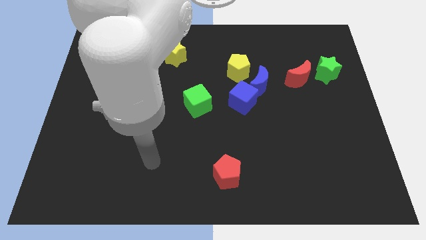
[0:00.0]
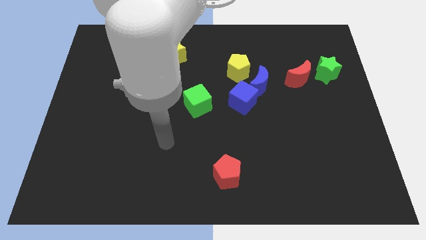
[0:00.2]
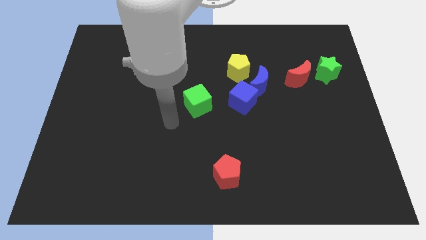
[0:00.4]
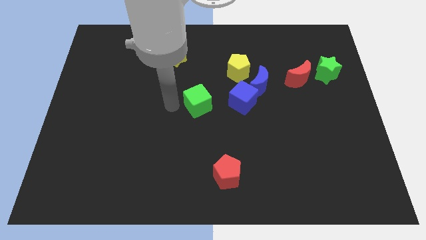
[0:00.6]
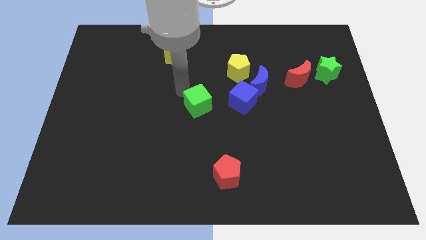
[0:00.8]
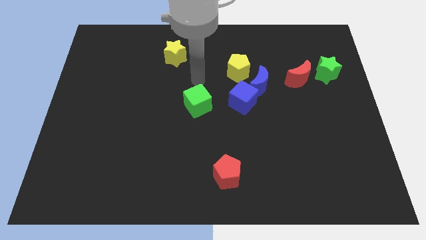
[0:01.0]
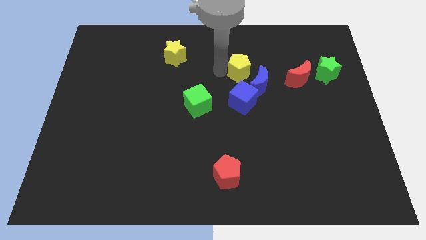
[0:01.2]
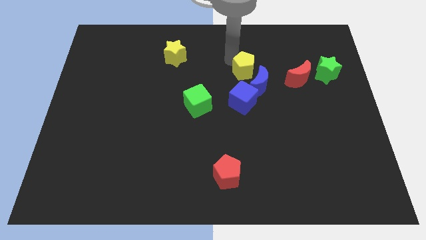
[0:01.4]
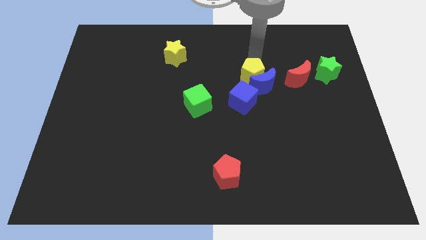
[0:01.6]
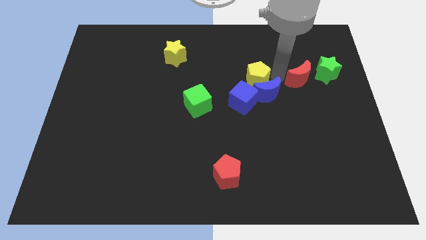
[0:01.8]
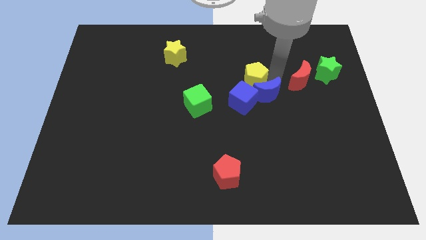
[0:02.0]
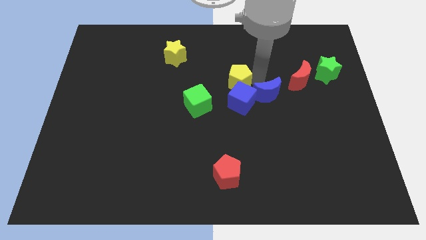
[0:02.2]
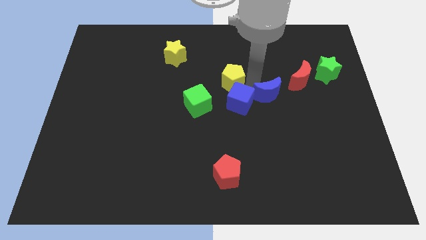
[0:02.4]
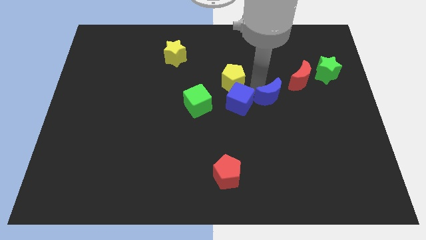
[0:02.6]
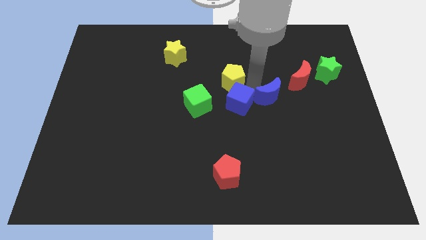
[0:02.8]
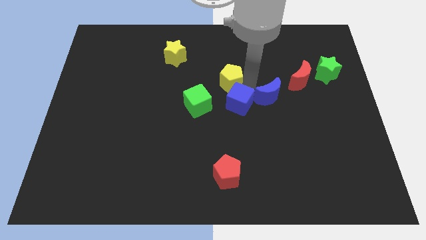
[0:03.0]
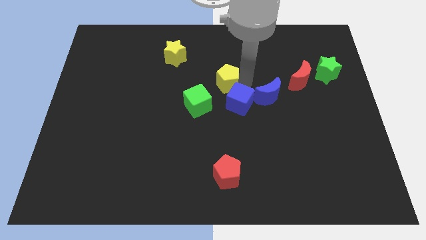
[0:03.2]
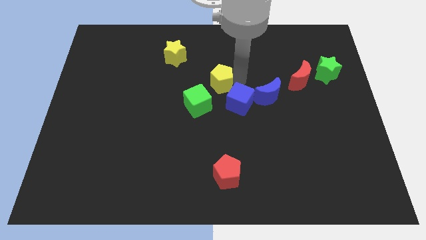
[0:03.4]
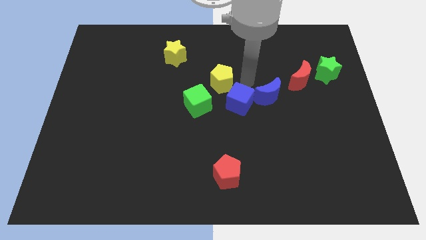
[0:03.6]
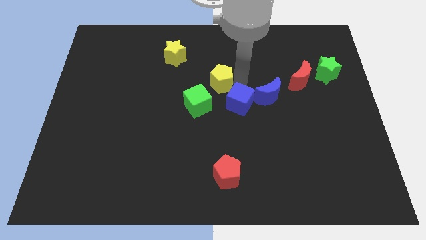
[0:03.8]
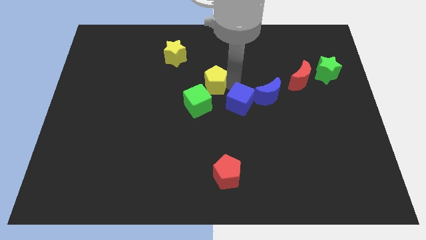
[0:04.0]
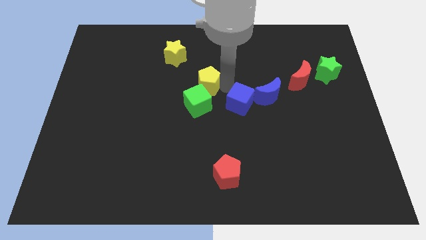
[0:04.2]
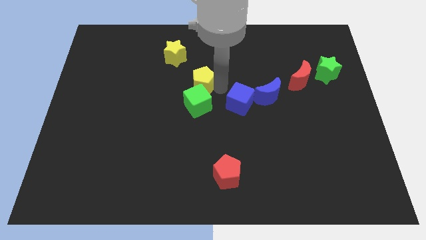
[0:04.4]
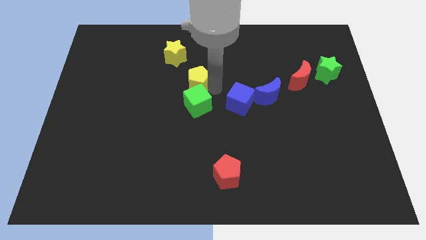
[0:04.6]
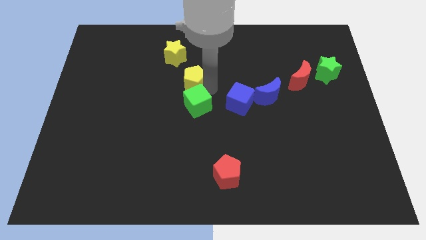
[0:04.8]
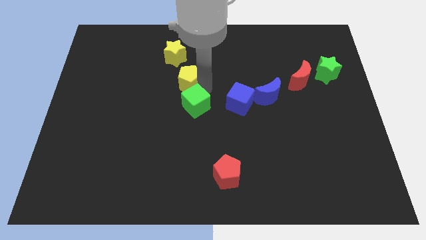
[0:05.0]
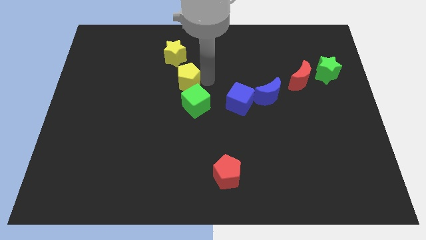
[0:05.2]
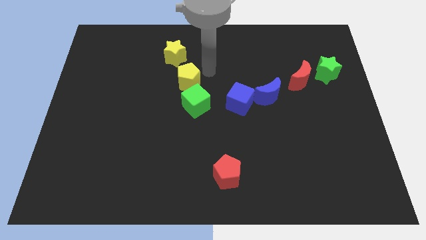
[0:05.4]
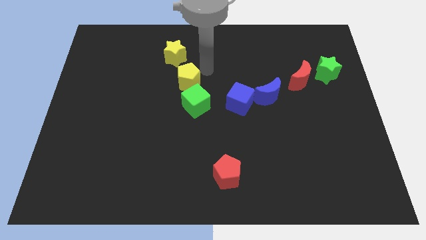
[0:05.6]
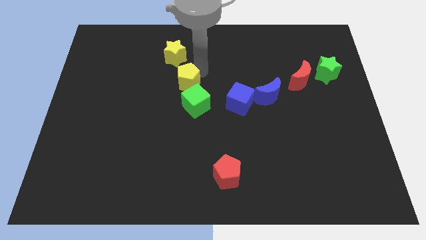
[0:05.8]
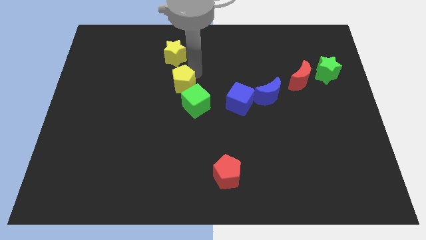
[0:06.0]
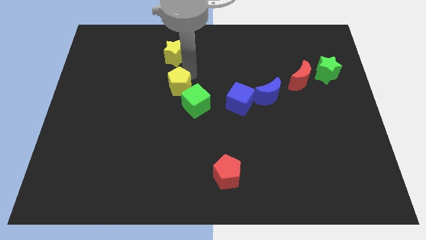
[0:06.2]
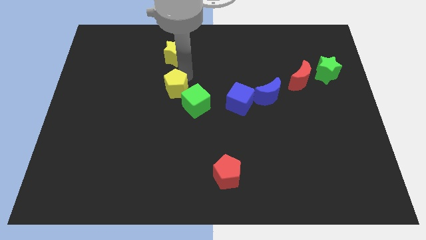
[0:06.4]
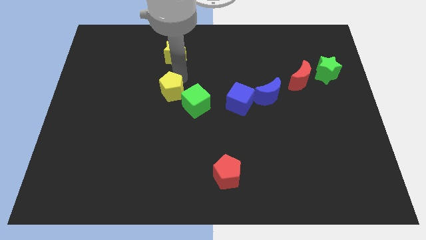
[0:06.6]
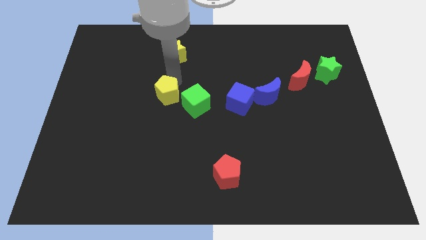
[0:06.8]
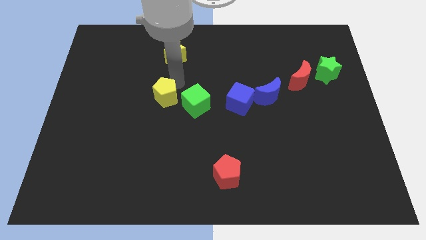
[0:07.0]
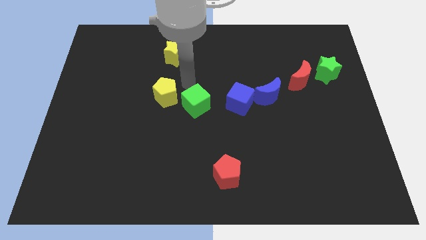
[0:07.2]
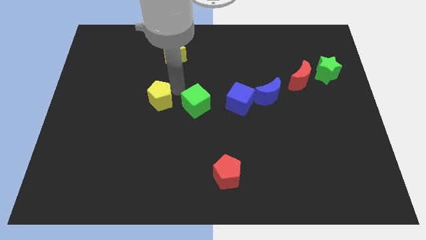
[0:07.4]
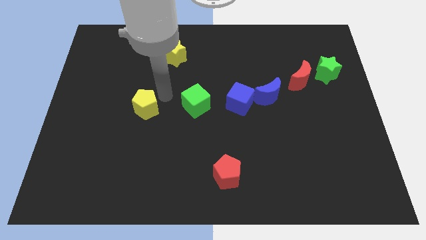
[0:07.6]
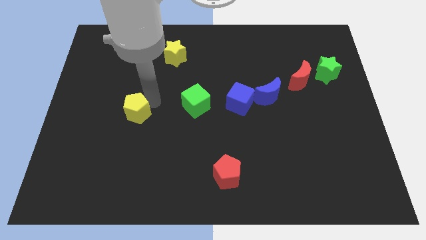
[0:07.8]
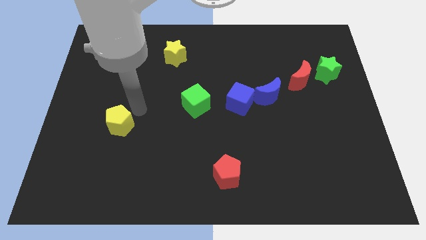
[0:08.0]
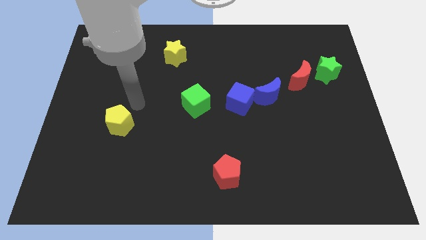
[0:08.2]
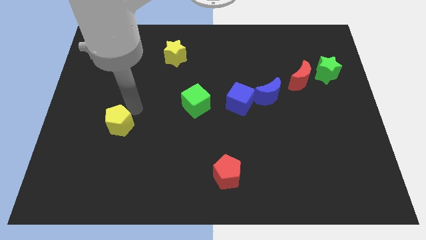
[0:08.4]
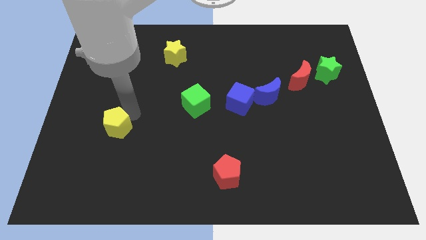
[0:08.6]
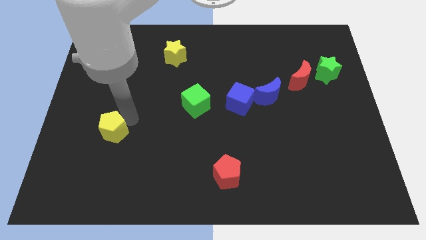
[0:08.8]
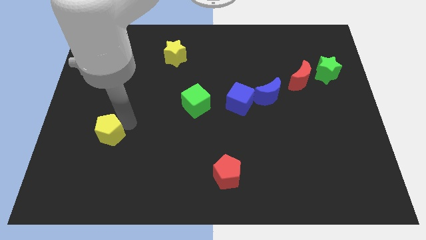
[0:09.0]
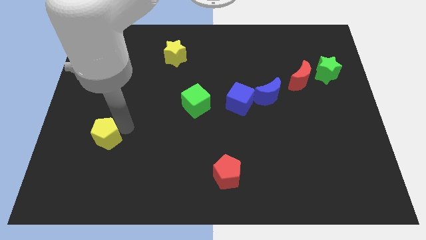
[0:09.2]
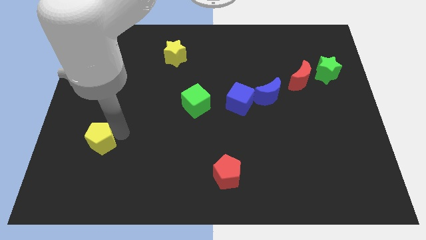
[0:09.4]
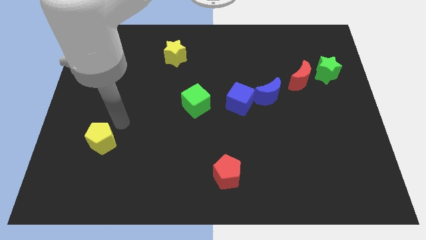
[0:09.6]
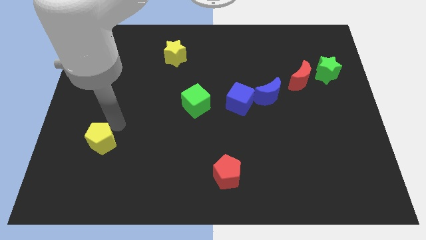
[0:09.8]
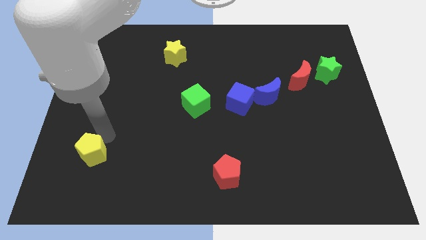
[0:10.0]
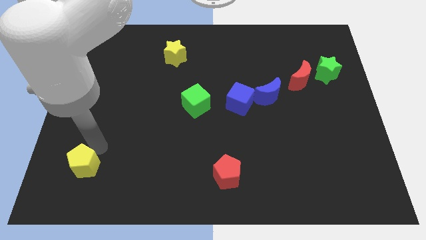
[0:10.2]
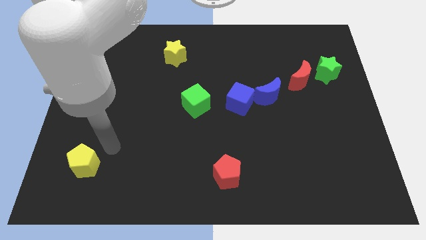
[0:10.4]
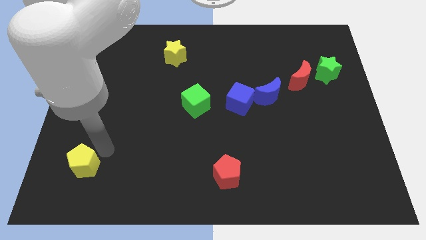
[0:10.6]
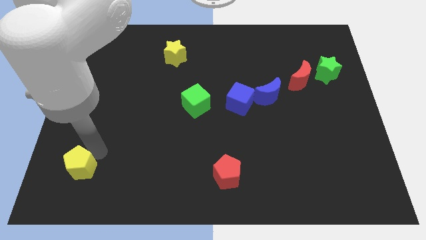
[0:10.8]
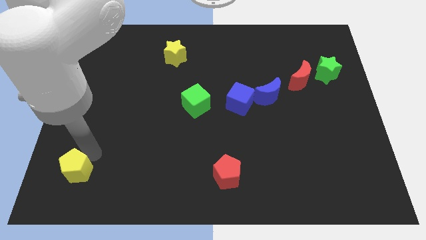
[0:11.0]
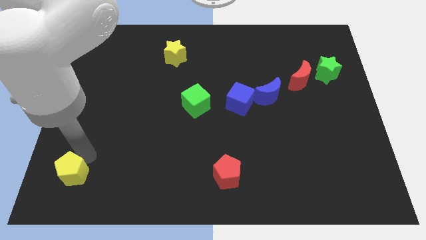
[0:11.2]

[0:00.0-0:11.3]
put the yellow pentagon to the bottom left of the board

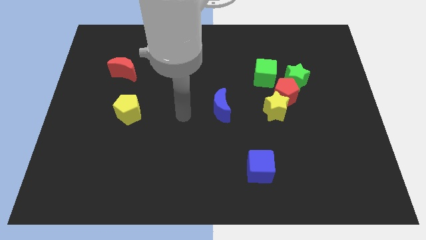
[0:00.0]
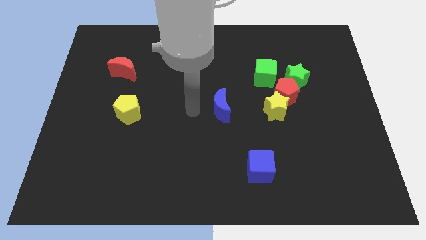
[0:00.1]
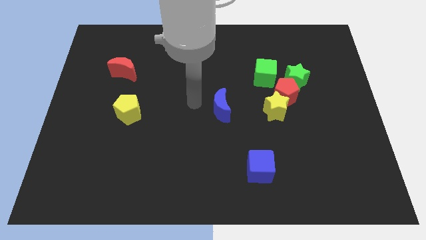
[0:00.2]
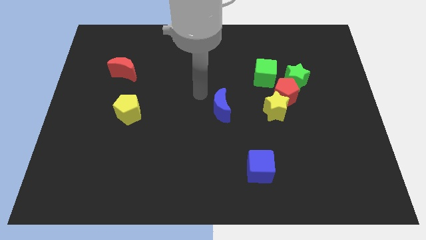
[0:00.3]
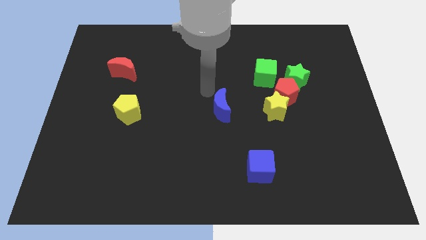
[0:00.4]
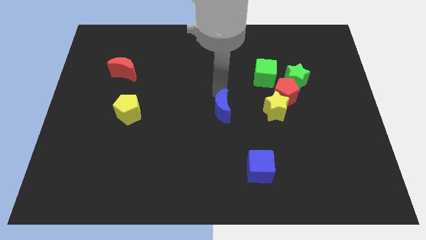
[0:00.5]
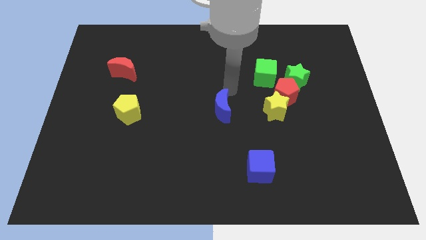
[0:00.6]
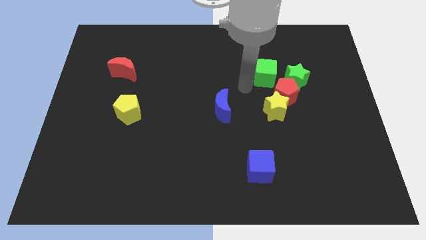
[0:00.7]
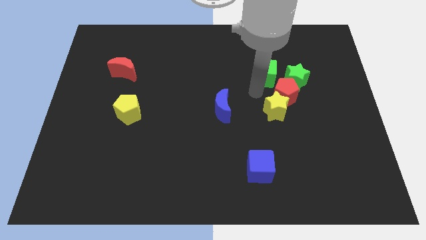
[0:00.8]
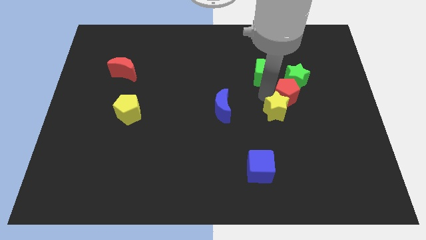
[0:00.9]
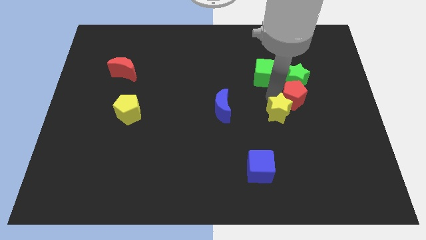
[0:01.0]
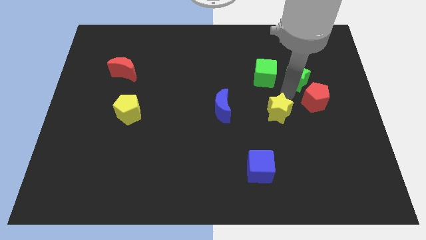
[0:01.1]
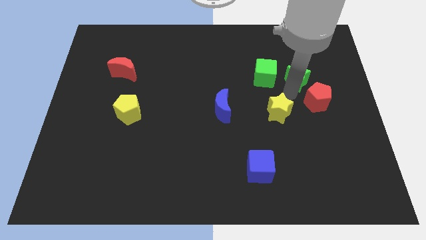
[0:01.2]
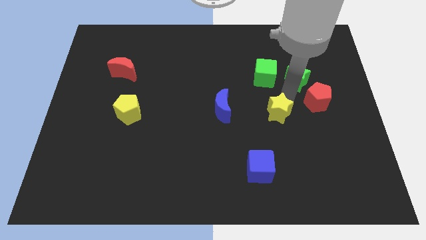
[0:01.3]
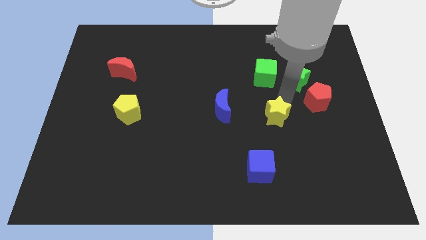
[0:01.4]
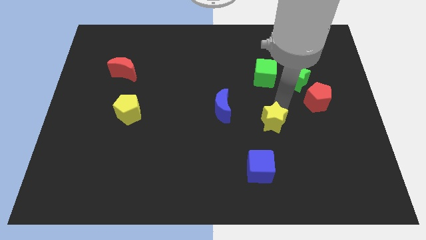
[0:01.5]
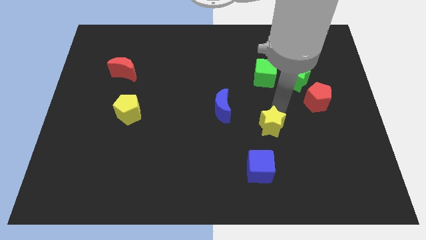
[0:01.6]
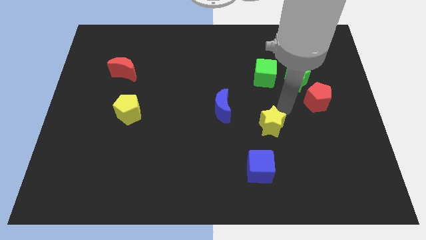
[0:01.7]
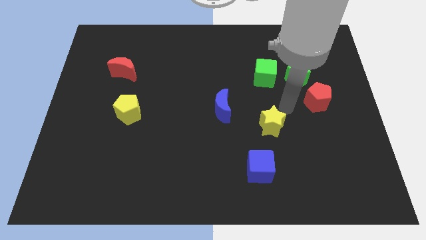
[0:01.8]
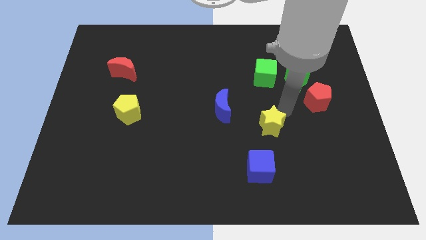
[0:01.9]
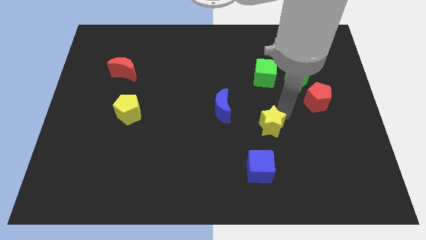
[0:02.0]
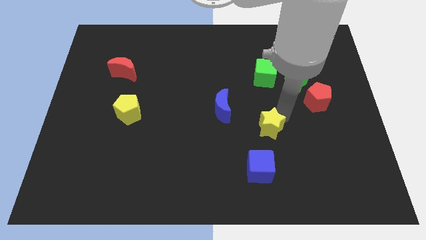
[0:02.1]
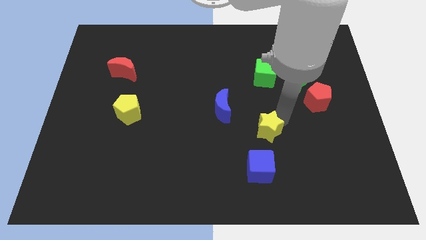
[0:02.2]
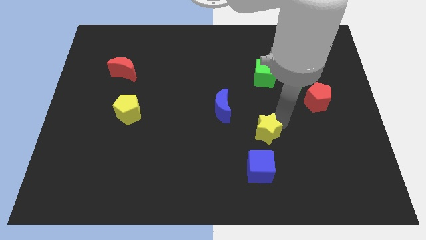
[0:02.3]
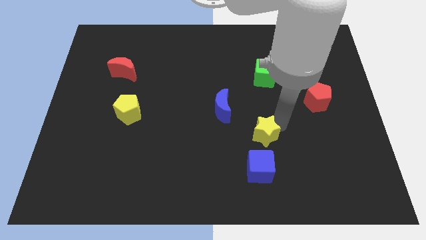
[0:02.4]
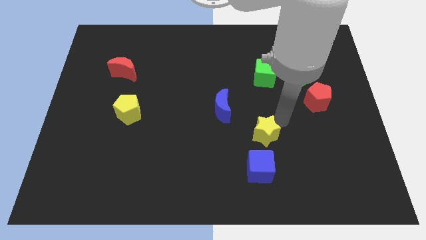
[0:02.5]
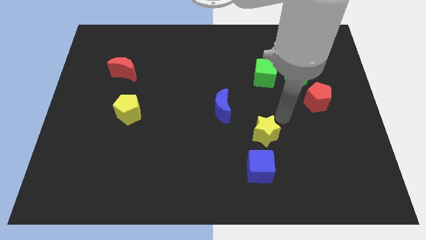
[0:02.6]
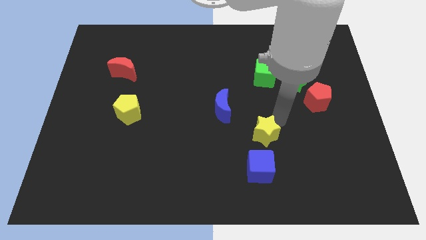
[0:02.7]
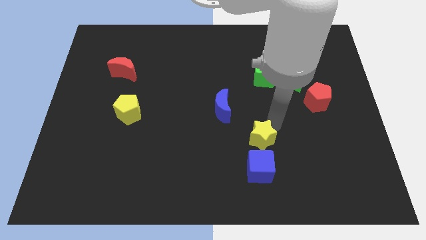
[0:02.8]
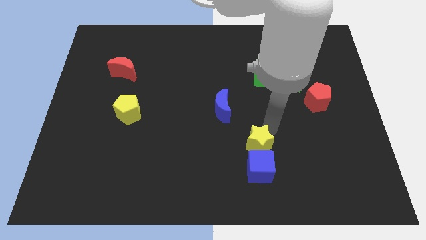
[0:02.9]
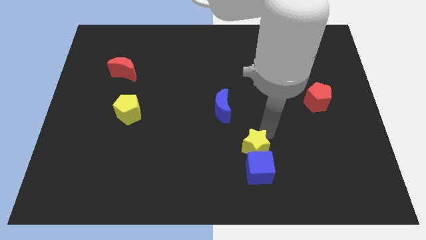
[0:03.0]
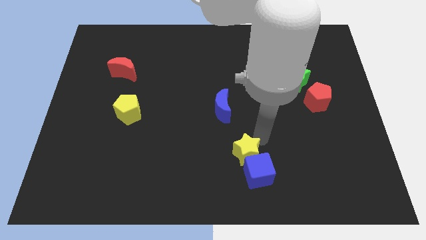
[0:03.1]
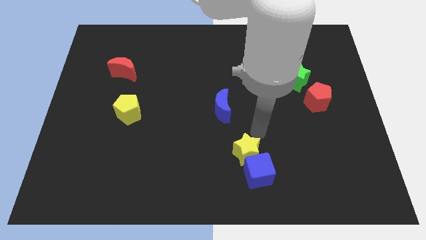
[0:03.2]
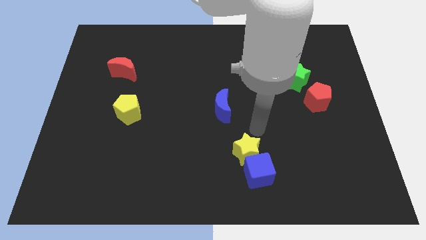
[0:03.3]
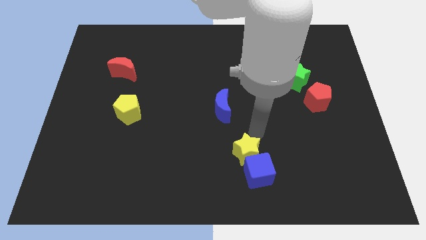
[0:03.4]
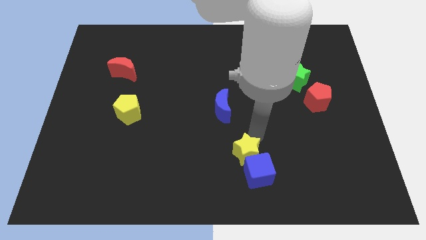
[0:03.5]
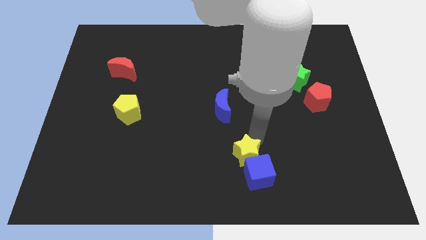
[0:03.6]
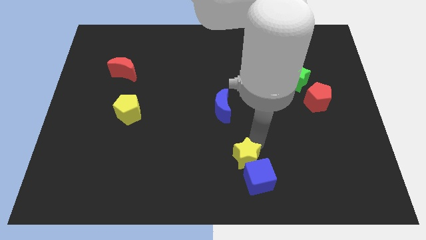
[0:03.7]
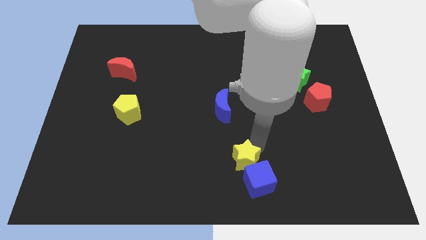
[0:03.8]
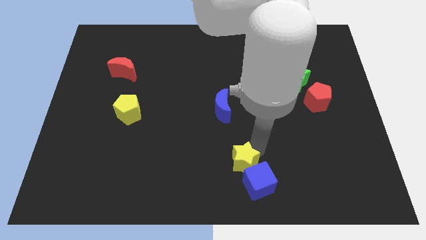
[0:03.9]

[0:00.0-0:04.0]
move the yellow star to the bottom
